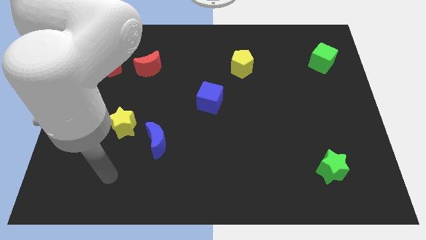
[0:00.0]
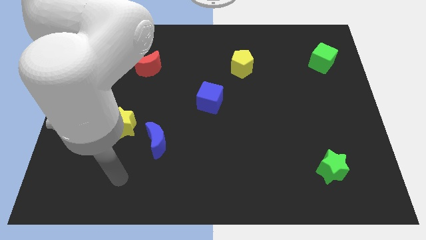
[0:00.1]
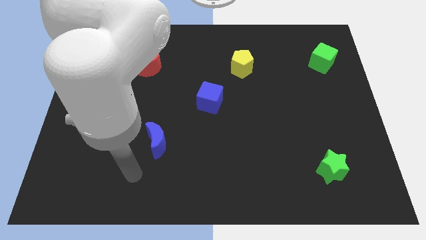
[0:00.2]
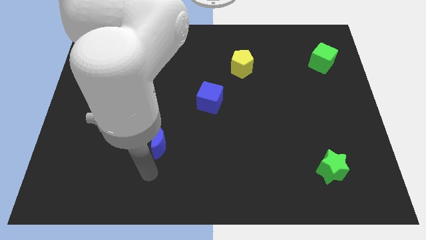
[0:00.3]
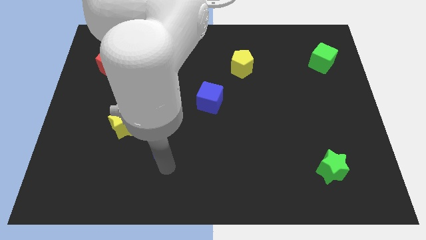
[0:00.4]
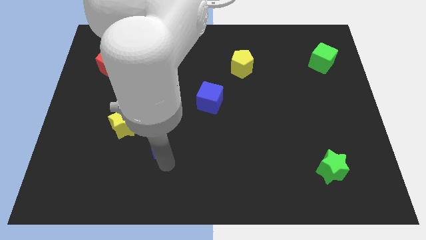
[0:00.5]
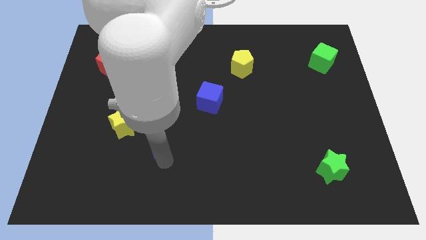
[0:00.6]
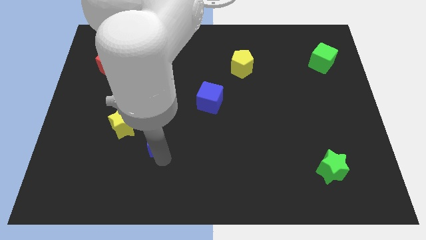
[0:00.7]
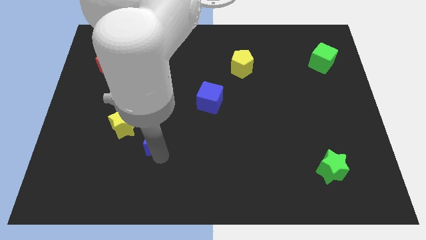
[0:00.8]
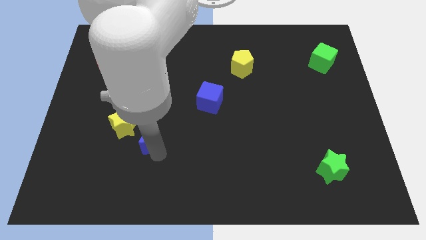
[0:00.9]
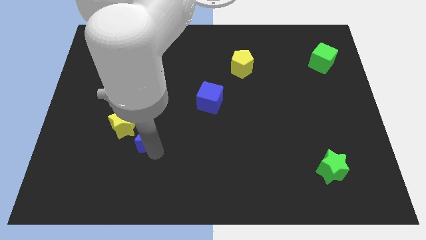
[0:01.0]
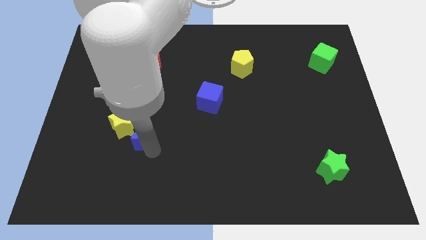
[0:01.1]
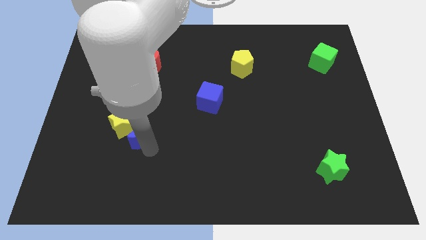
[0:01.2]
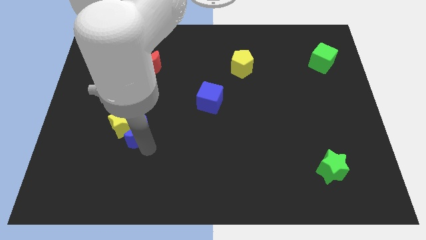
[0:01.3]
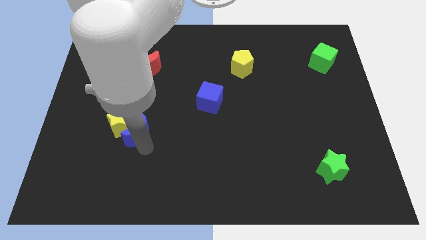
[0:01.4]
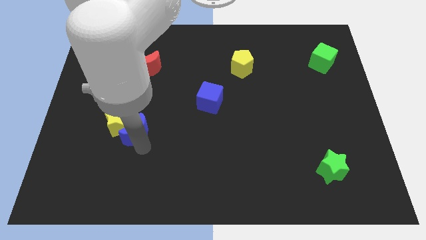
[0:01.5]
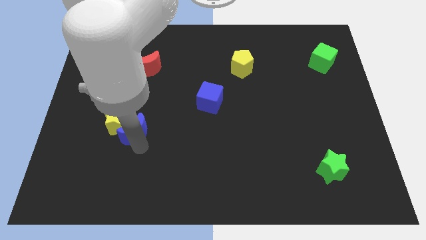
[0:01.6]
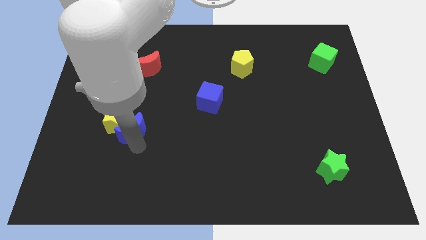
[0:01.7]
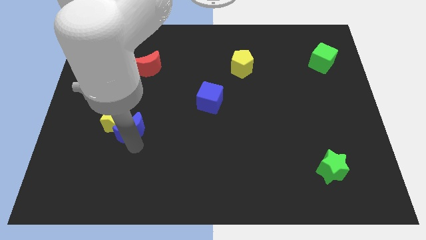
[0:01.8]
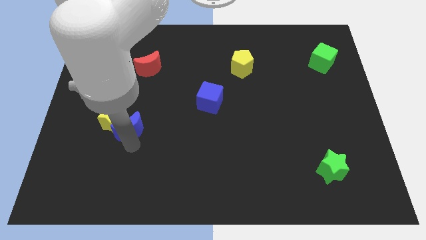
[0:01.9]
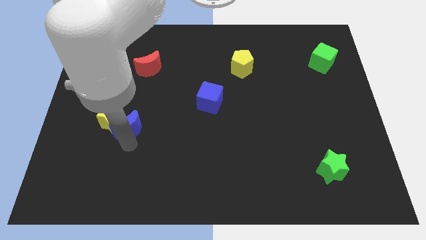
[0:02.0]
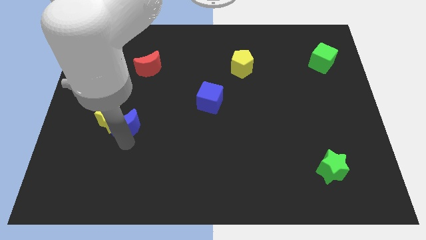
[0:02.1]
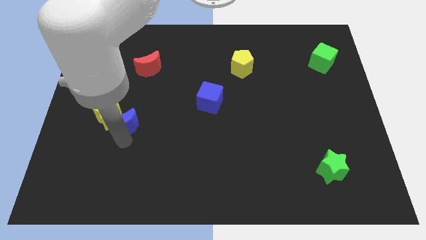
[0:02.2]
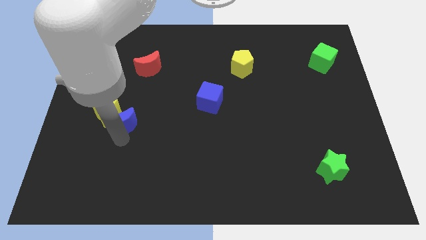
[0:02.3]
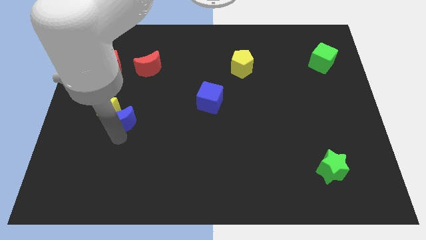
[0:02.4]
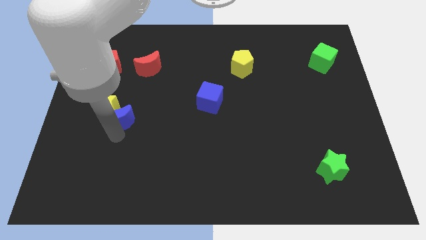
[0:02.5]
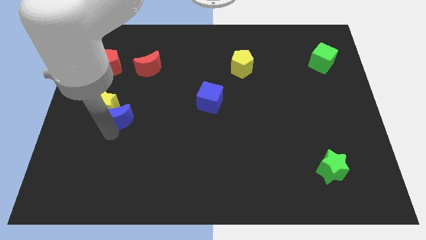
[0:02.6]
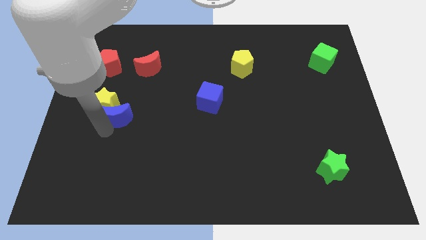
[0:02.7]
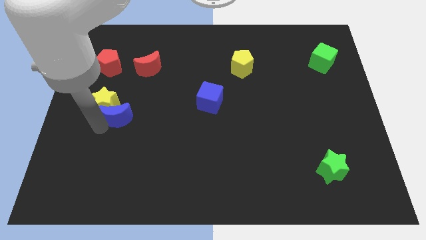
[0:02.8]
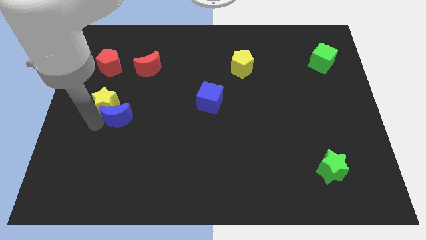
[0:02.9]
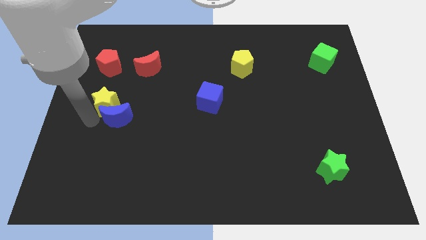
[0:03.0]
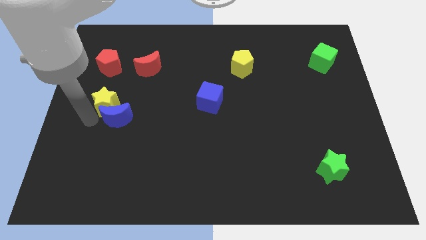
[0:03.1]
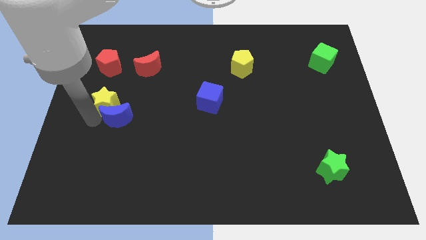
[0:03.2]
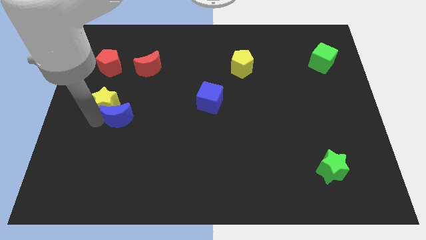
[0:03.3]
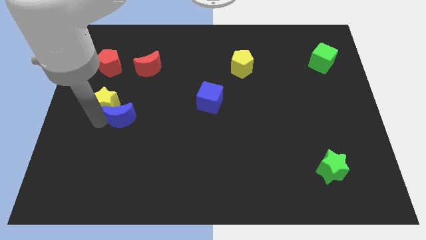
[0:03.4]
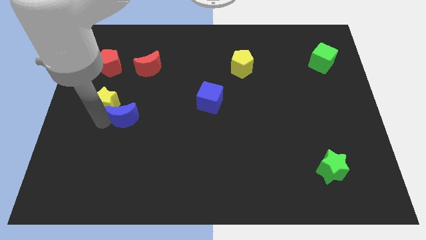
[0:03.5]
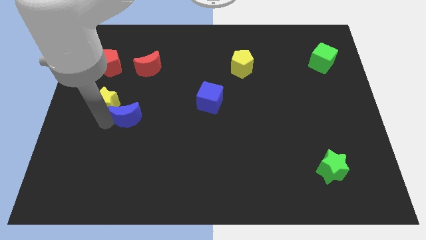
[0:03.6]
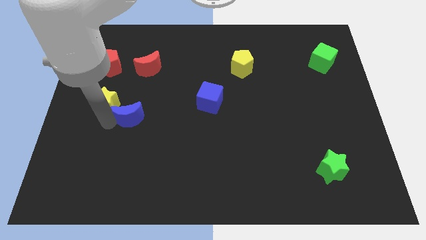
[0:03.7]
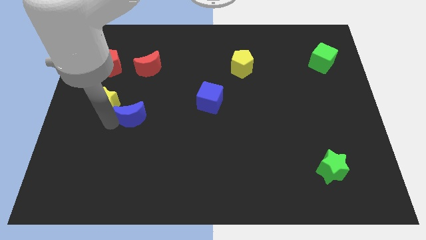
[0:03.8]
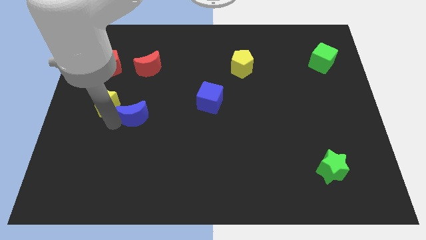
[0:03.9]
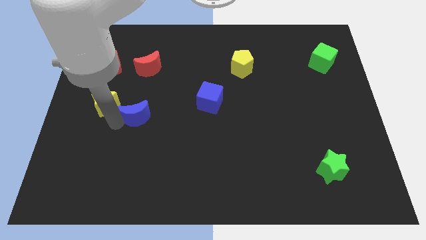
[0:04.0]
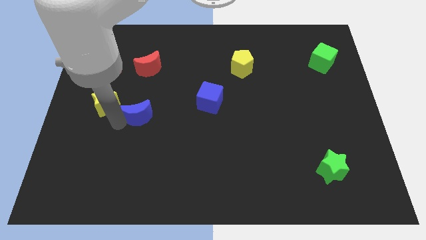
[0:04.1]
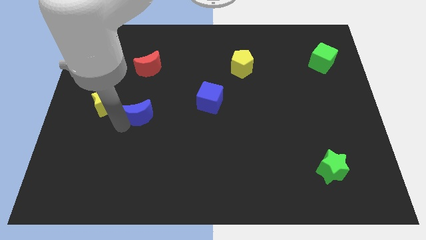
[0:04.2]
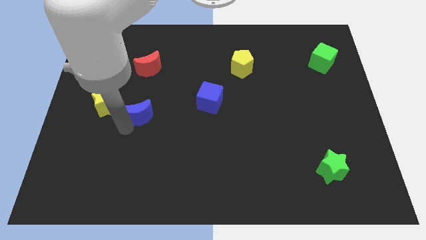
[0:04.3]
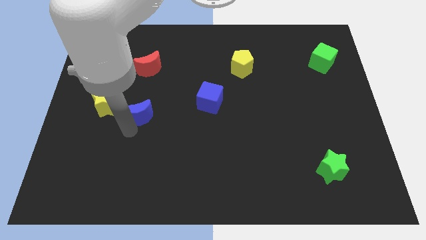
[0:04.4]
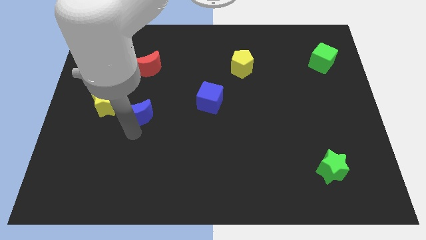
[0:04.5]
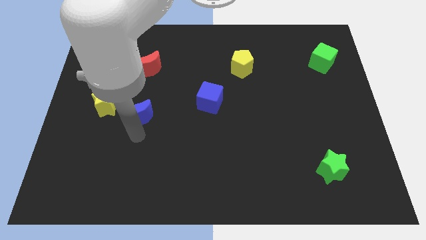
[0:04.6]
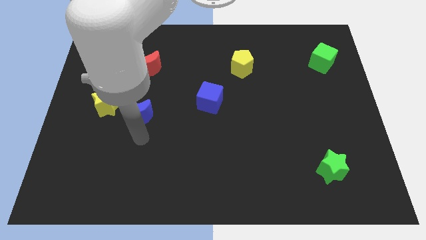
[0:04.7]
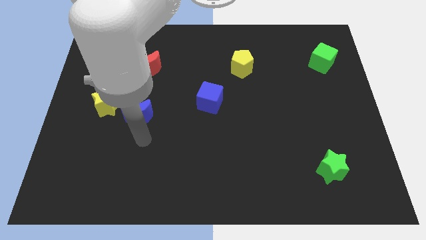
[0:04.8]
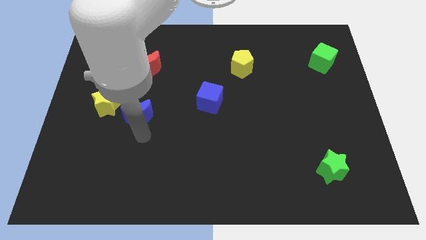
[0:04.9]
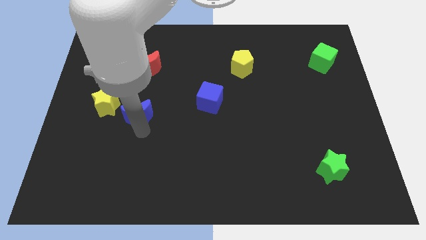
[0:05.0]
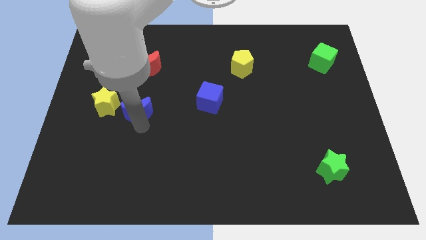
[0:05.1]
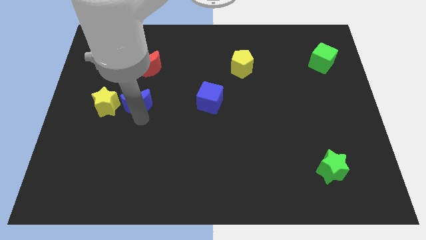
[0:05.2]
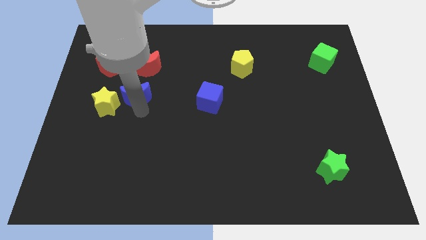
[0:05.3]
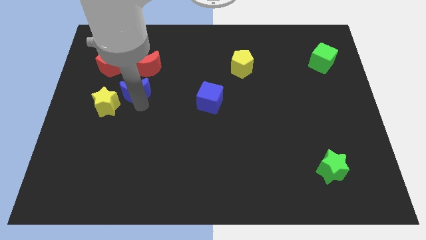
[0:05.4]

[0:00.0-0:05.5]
slide the blue moon diagonally down and to the left of the red moon

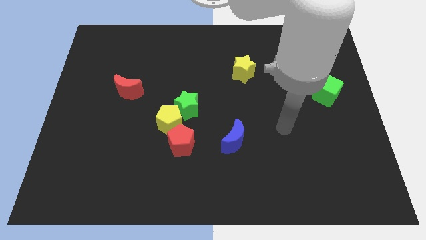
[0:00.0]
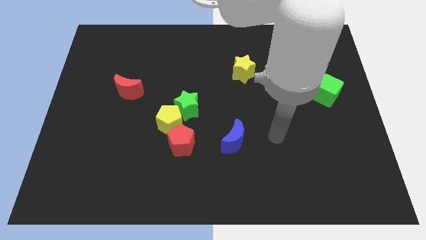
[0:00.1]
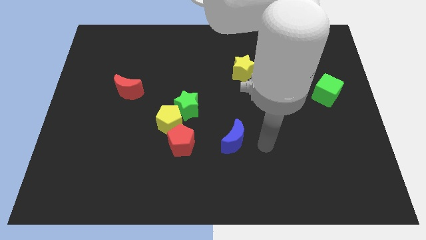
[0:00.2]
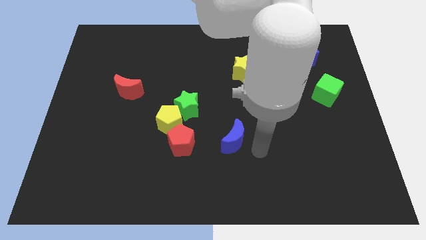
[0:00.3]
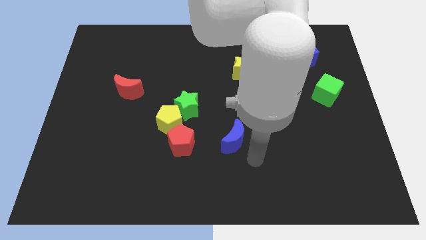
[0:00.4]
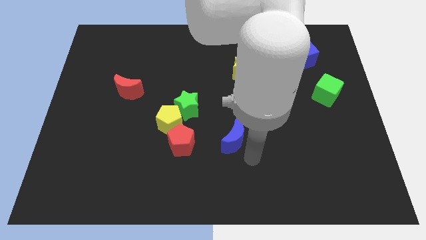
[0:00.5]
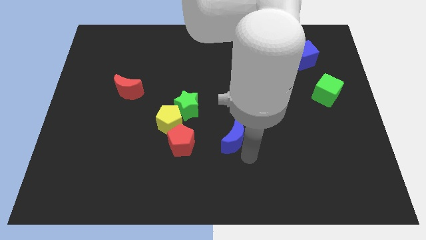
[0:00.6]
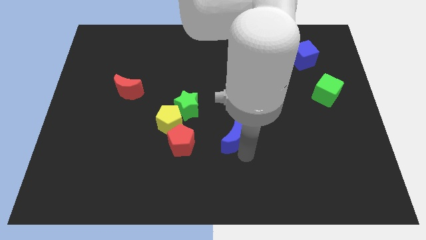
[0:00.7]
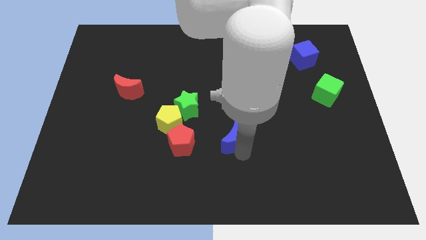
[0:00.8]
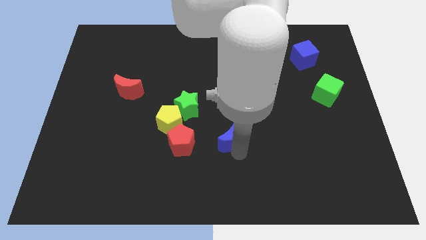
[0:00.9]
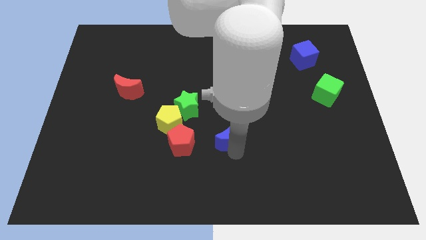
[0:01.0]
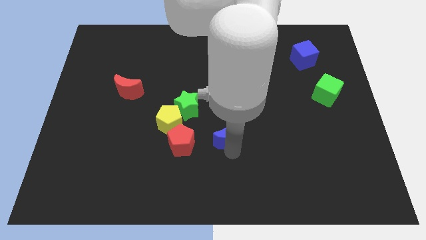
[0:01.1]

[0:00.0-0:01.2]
move the blue moon just right of the yellow pentagon
